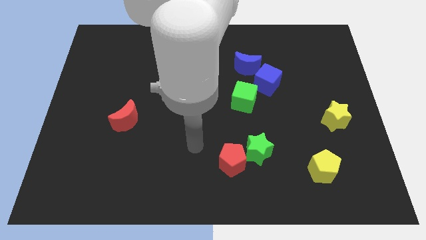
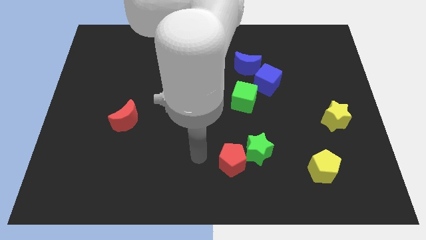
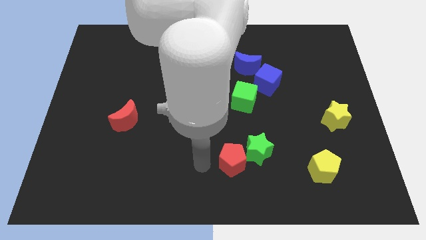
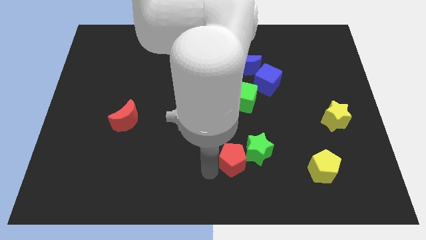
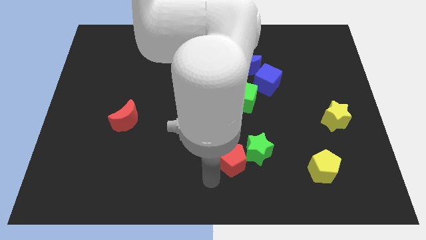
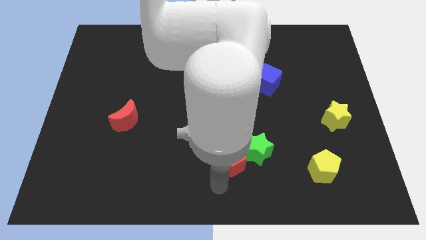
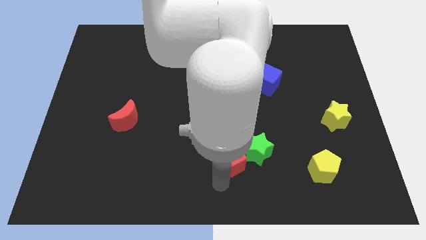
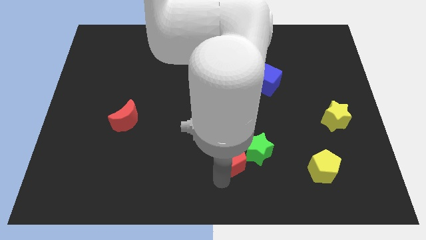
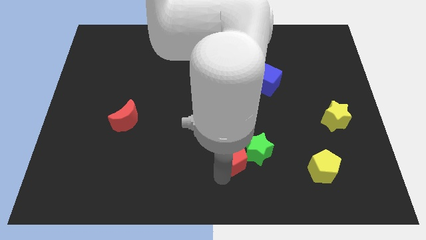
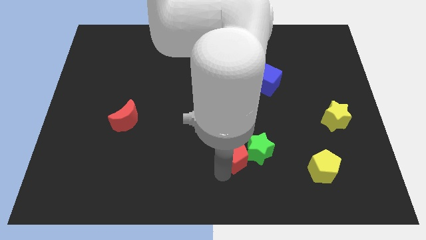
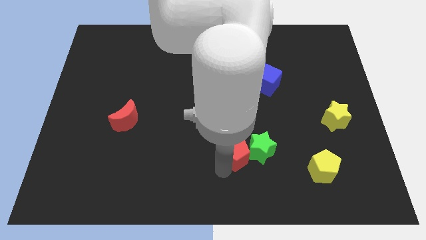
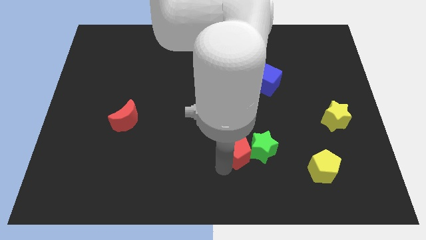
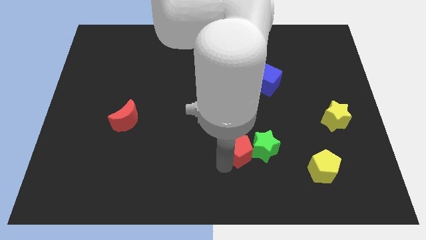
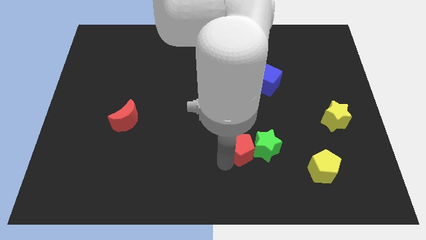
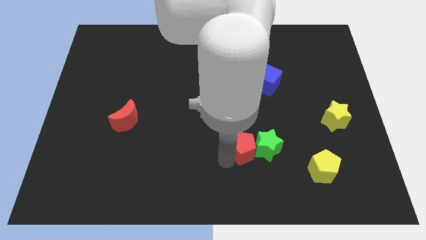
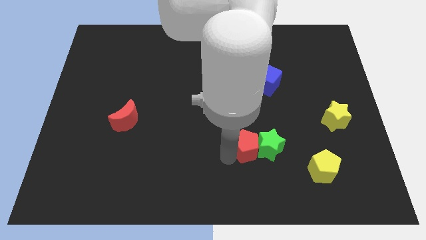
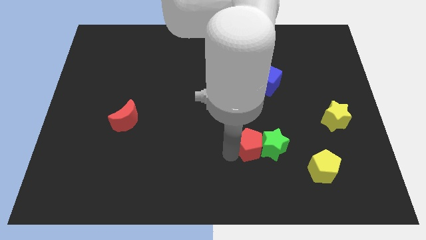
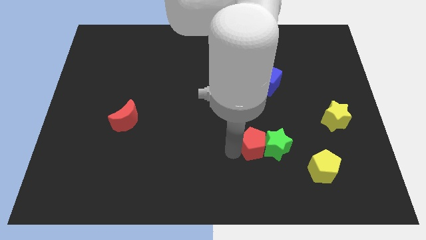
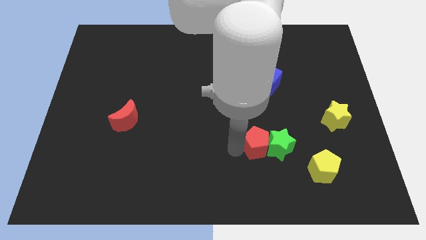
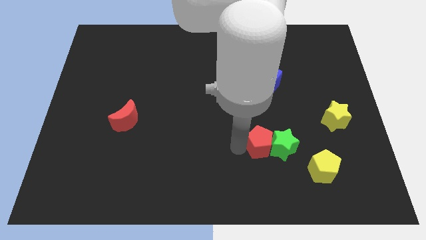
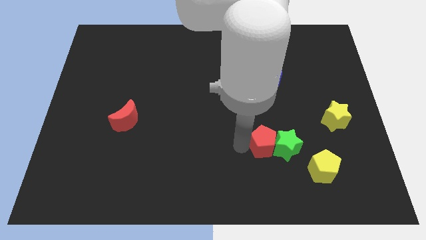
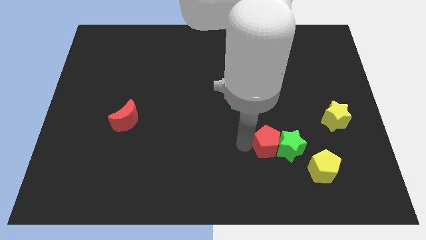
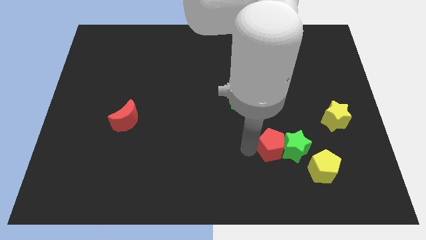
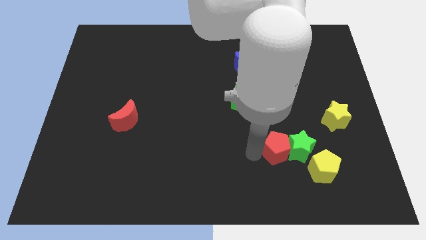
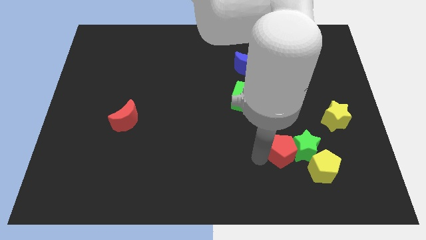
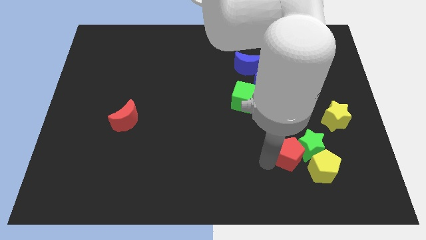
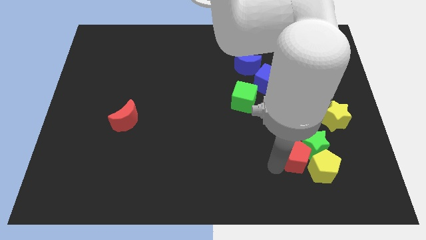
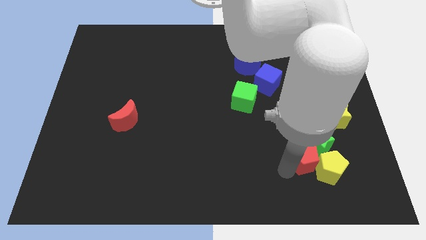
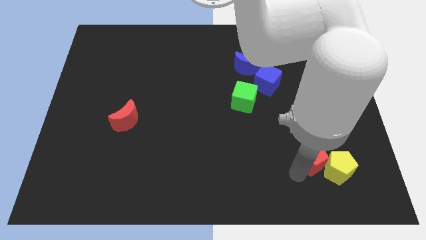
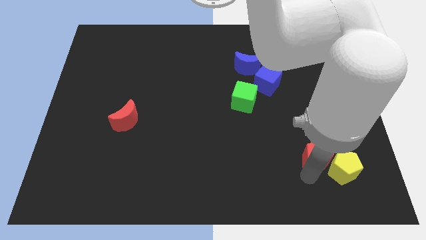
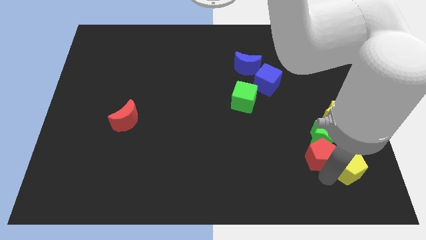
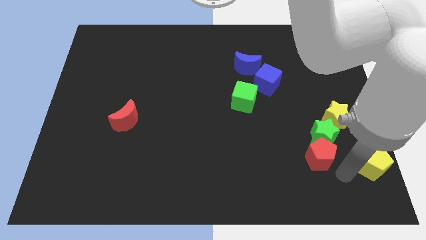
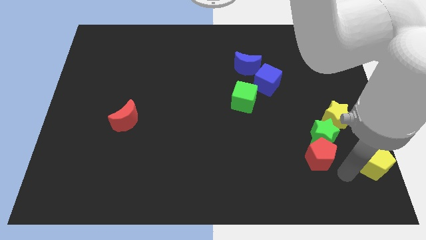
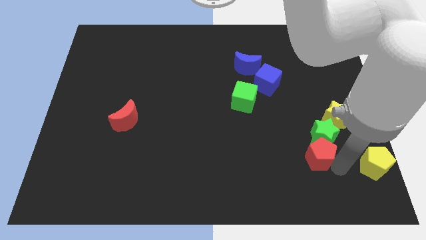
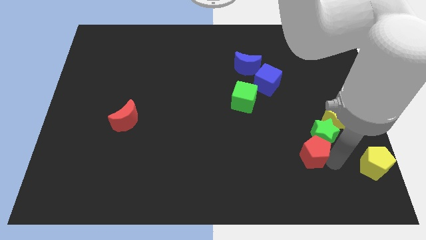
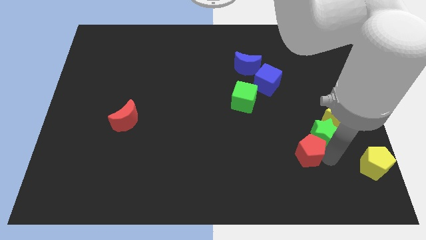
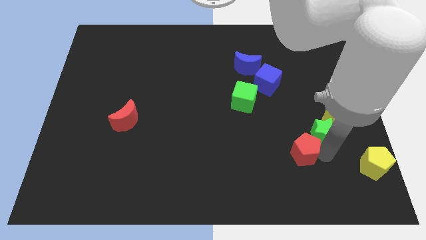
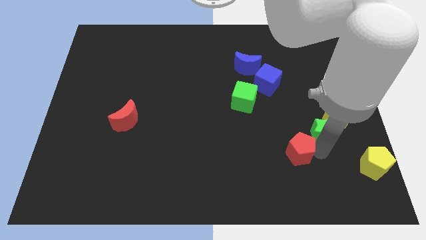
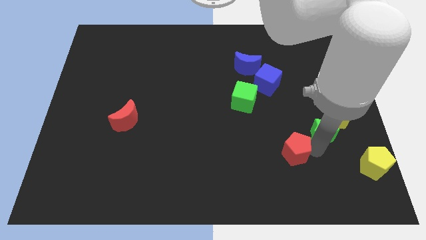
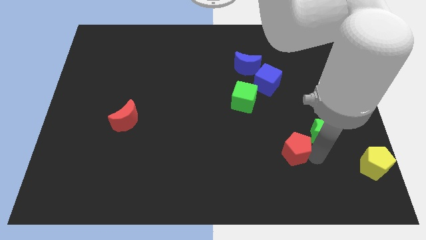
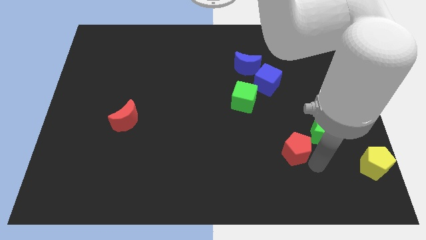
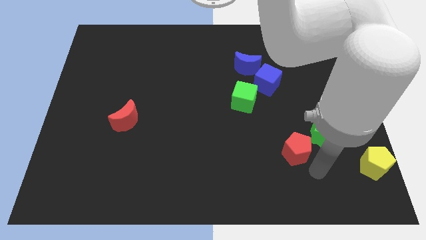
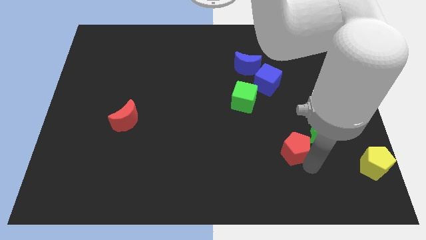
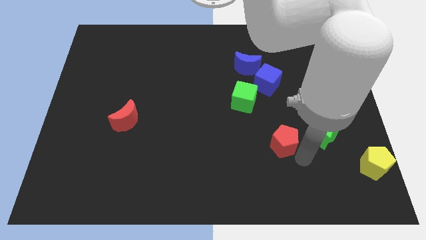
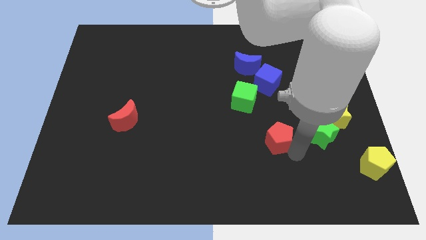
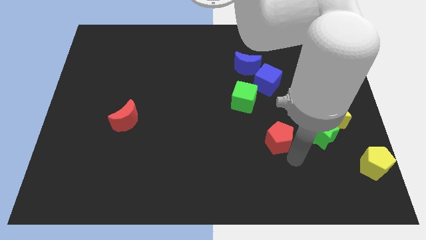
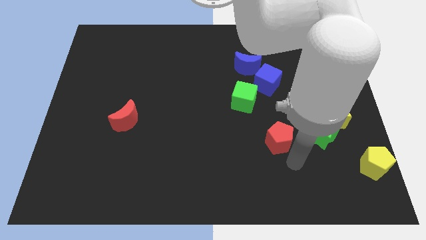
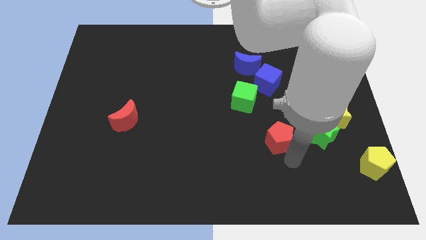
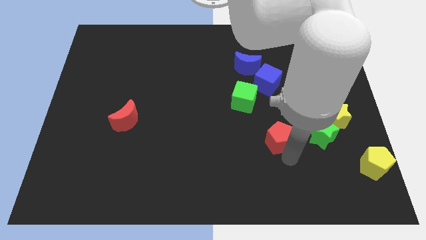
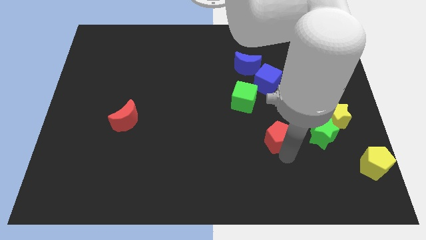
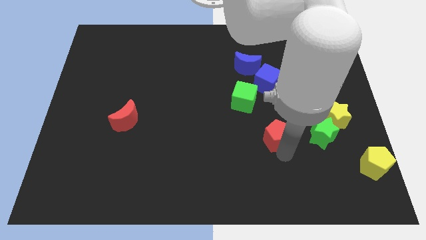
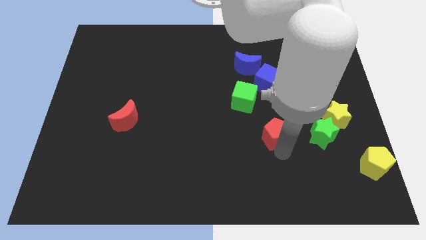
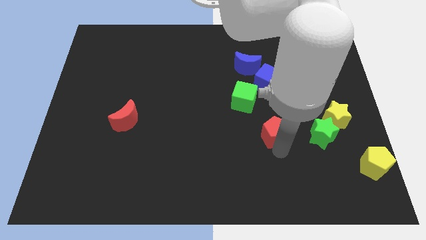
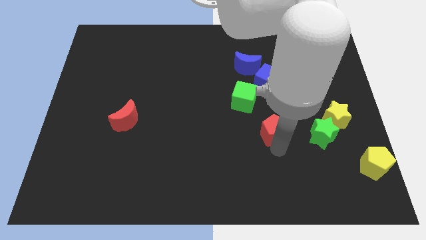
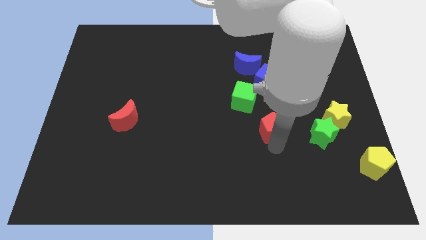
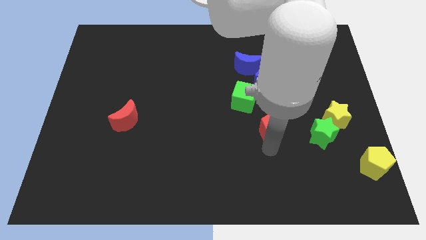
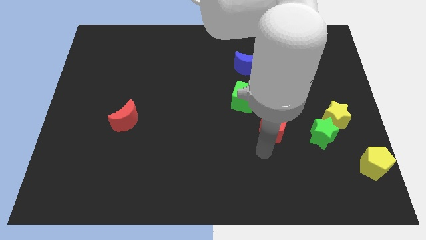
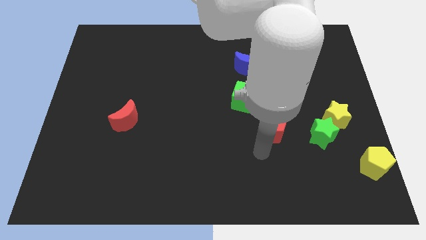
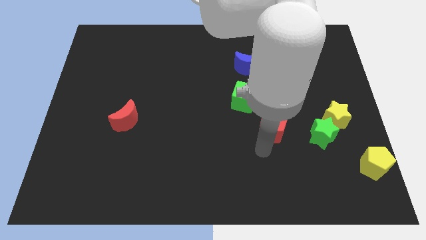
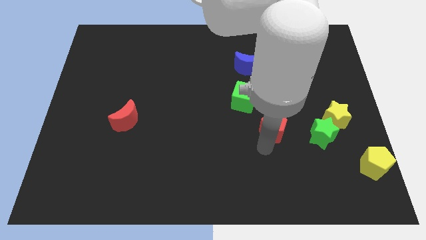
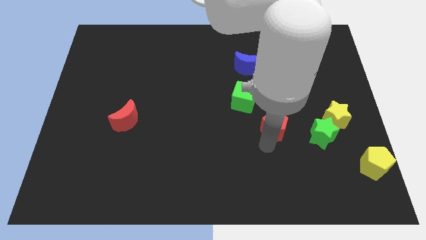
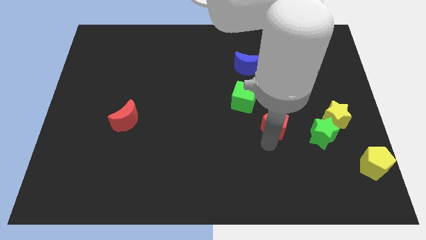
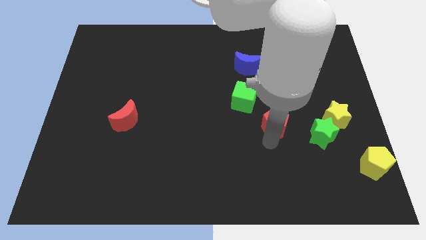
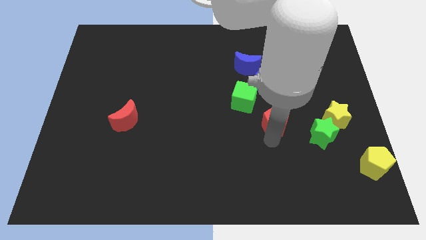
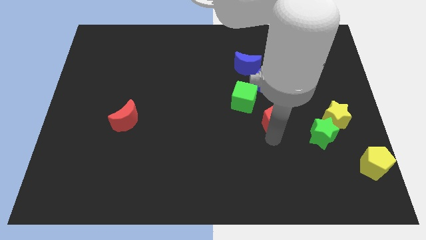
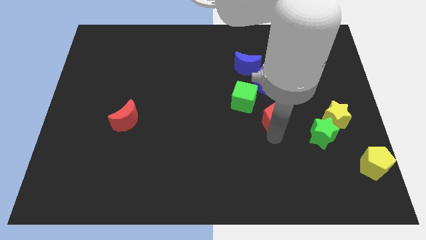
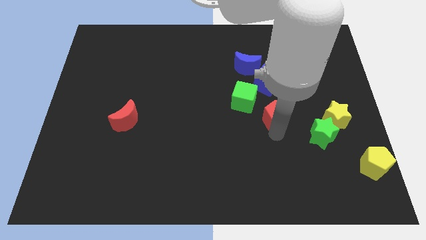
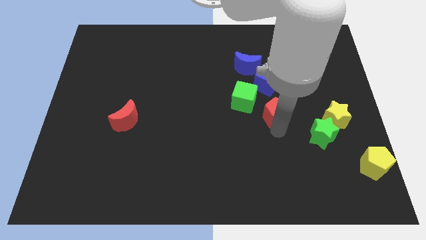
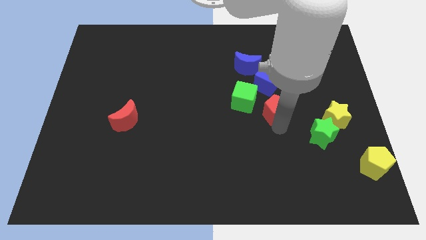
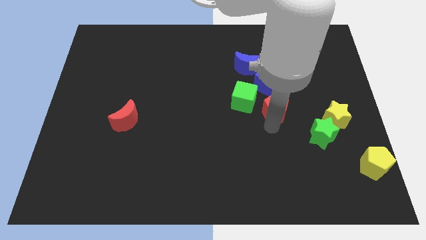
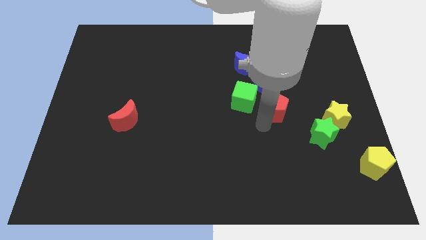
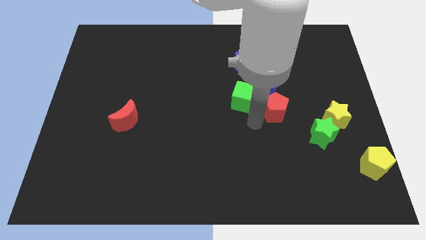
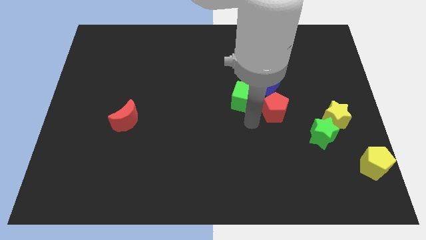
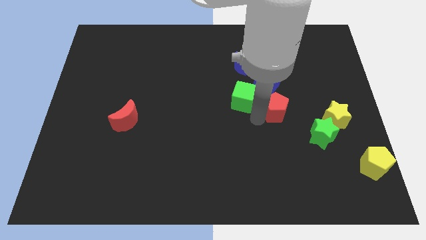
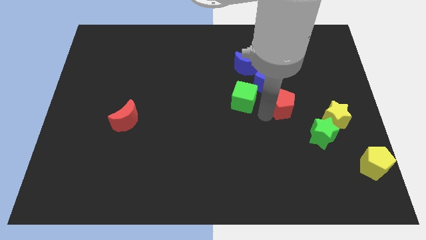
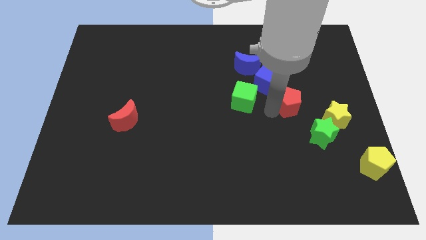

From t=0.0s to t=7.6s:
move the red pentagon upwards and then right
